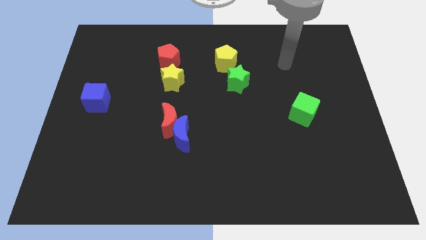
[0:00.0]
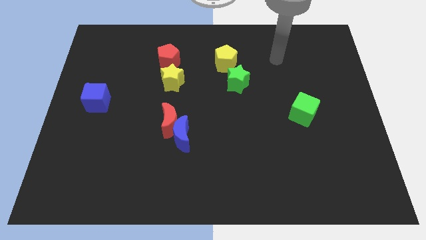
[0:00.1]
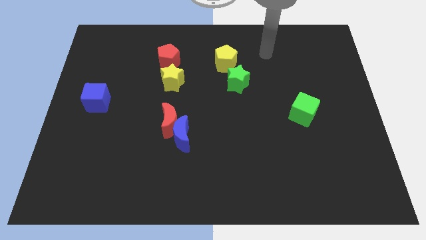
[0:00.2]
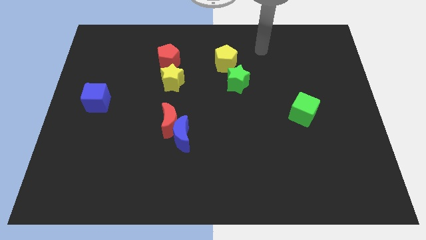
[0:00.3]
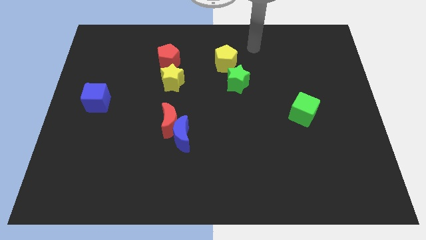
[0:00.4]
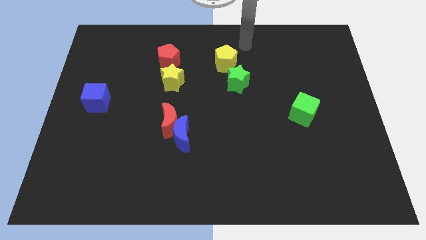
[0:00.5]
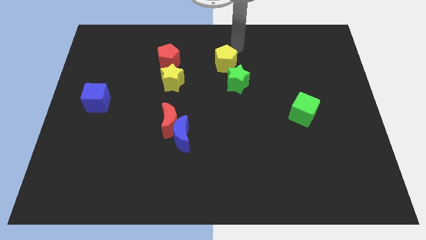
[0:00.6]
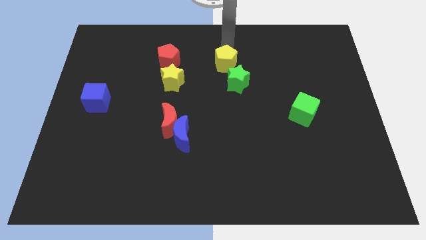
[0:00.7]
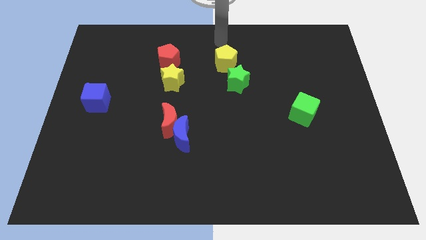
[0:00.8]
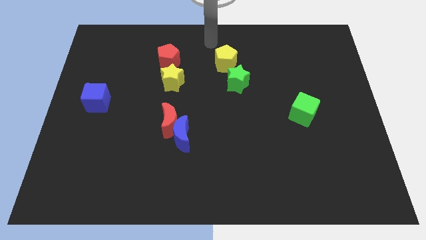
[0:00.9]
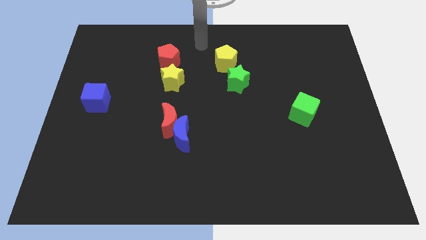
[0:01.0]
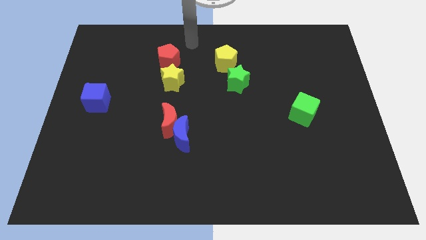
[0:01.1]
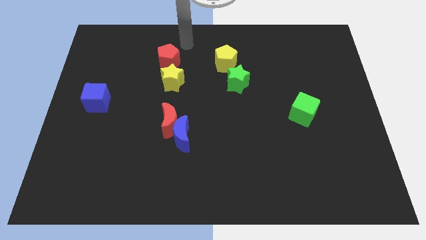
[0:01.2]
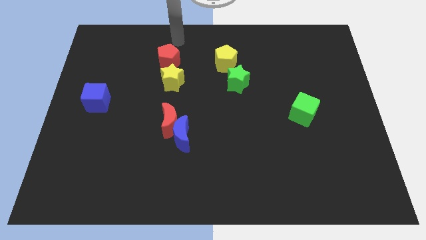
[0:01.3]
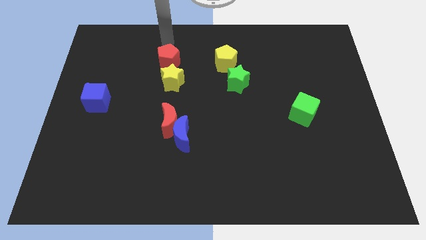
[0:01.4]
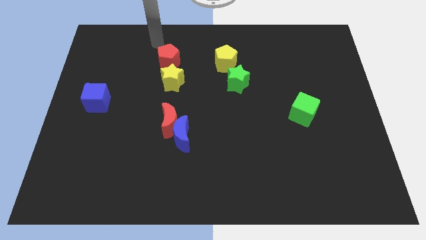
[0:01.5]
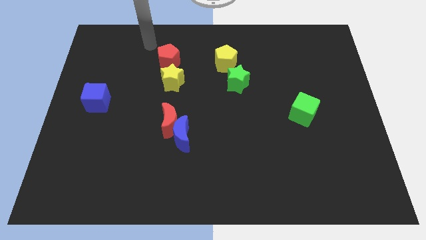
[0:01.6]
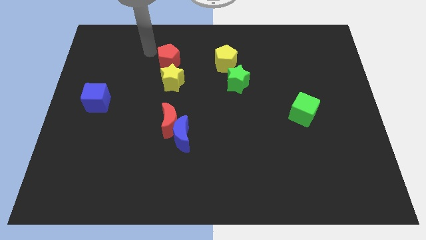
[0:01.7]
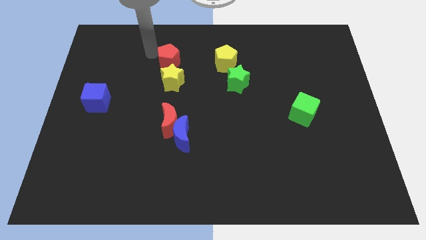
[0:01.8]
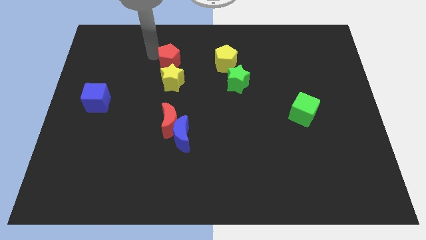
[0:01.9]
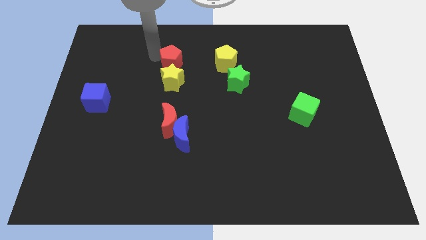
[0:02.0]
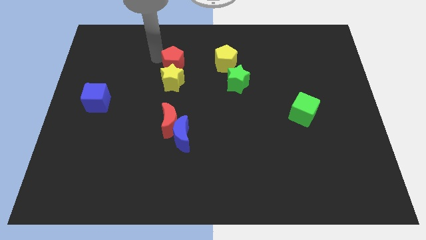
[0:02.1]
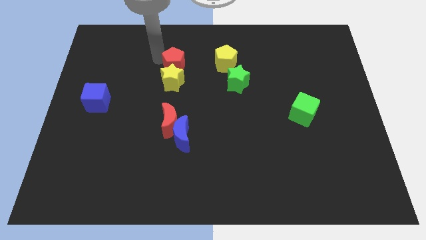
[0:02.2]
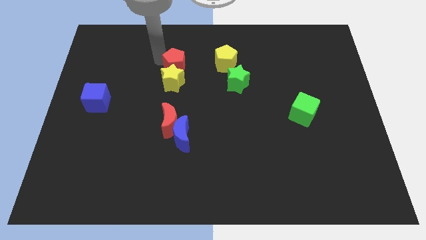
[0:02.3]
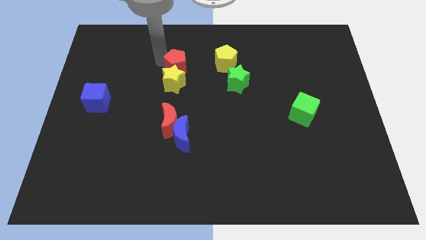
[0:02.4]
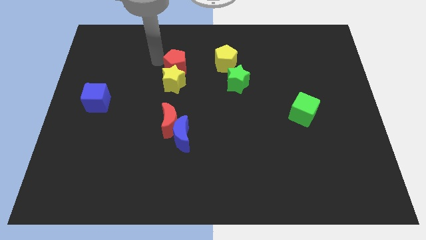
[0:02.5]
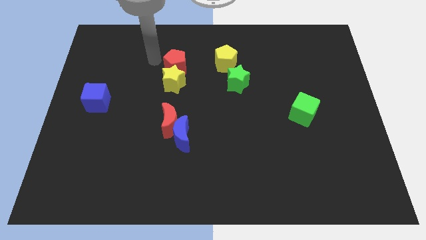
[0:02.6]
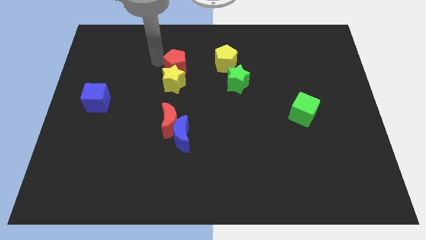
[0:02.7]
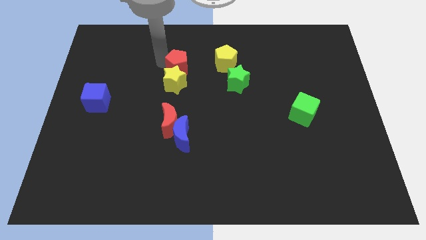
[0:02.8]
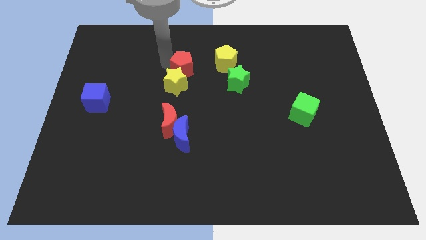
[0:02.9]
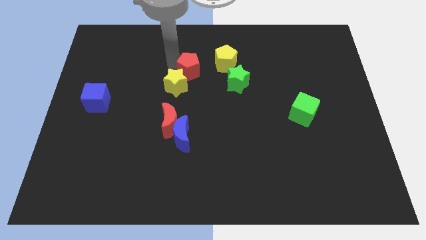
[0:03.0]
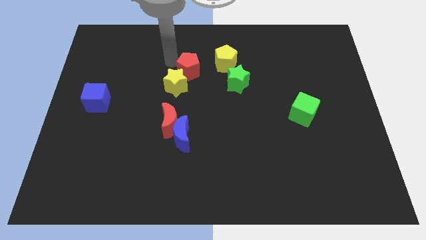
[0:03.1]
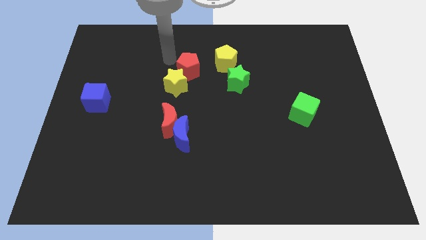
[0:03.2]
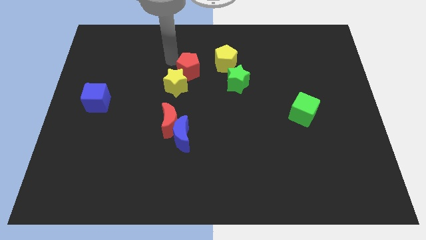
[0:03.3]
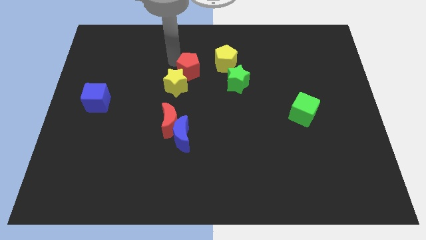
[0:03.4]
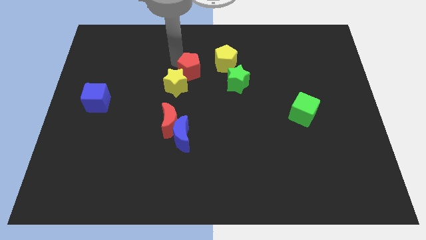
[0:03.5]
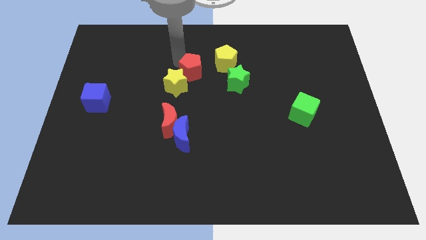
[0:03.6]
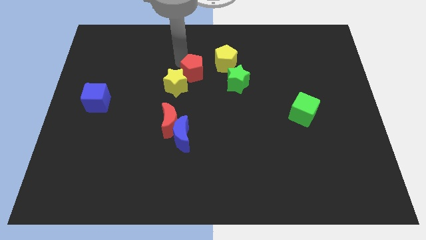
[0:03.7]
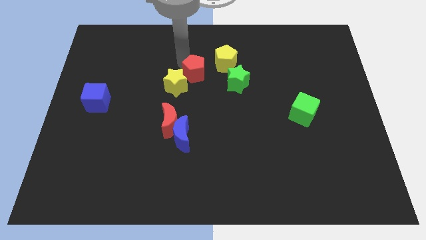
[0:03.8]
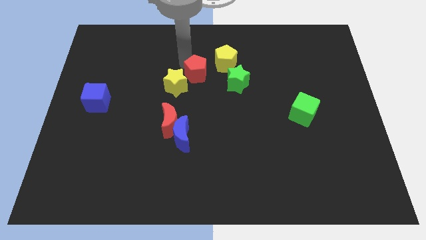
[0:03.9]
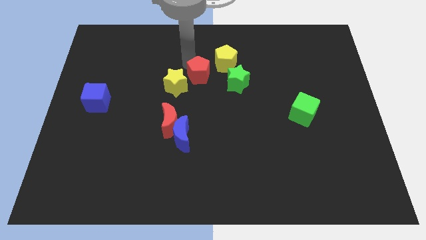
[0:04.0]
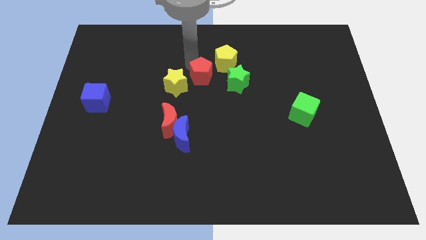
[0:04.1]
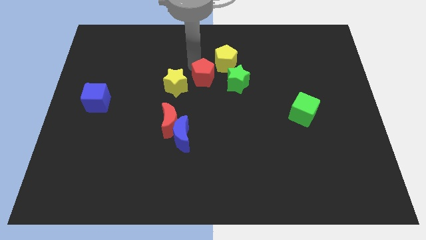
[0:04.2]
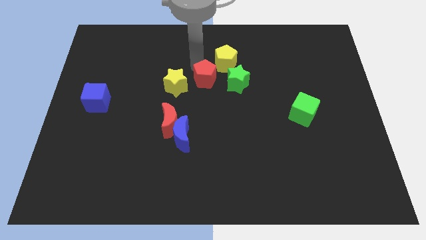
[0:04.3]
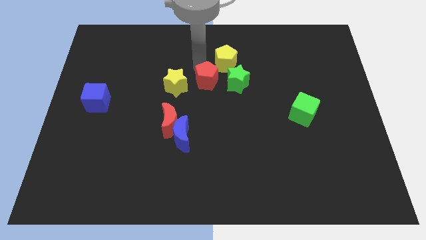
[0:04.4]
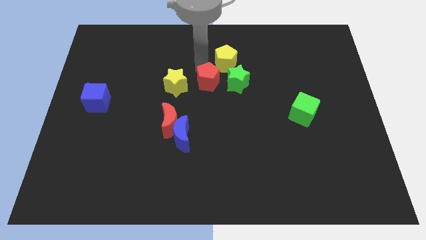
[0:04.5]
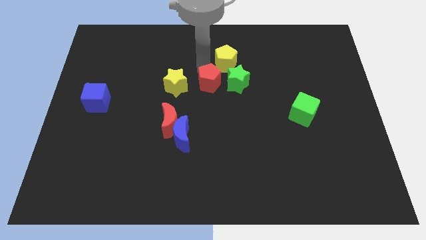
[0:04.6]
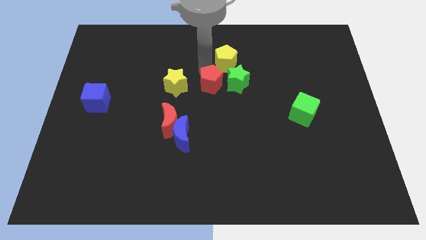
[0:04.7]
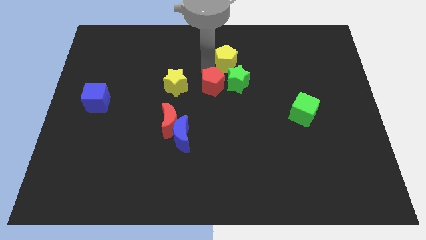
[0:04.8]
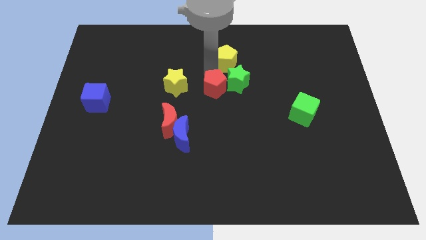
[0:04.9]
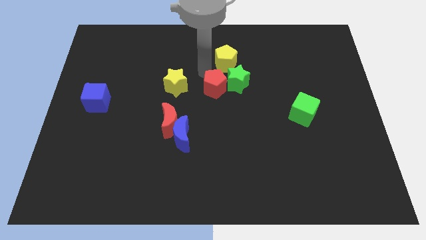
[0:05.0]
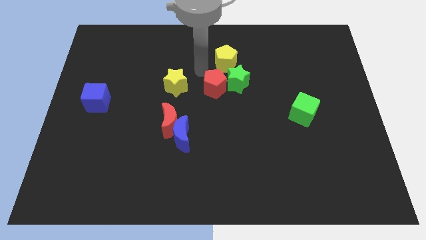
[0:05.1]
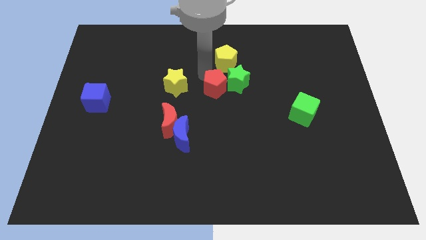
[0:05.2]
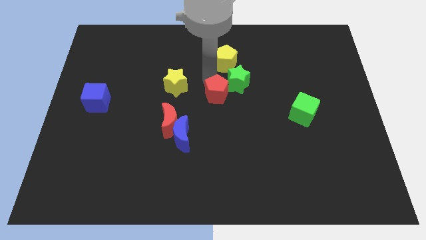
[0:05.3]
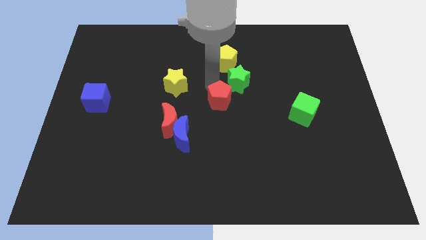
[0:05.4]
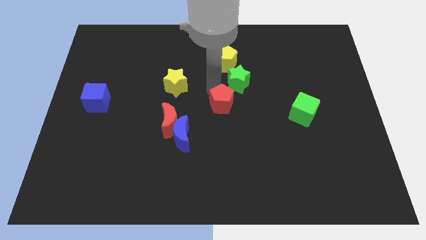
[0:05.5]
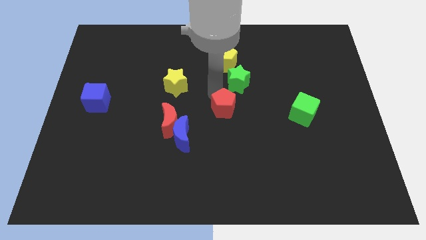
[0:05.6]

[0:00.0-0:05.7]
move the red pentagon diagonally downwards and to the right

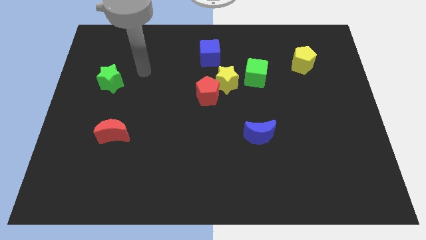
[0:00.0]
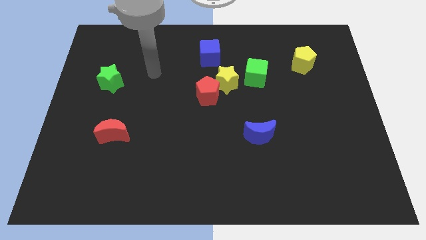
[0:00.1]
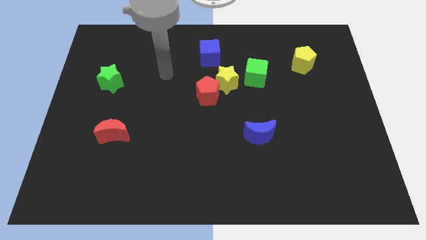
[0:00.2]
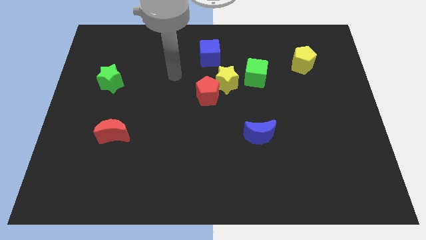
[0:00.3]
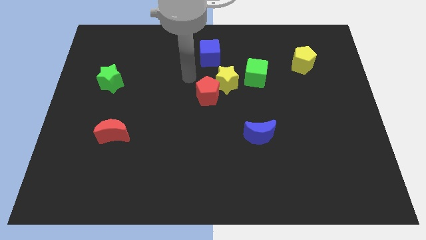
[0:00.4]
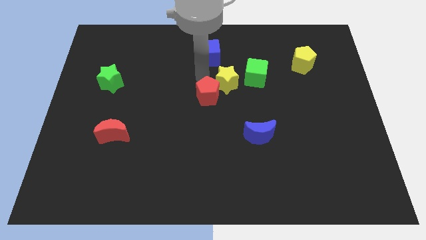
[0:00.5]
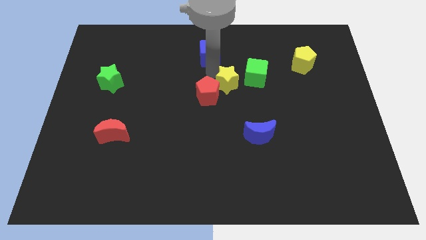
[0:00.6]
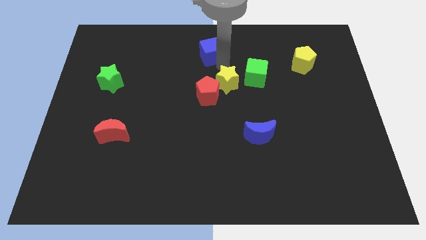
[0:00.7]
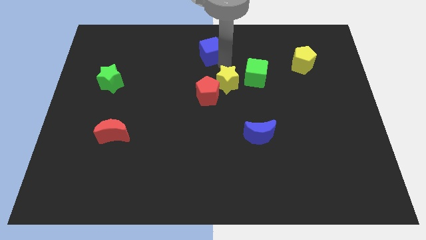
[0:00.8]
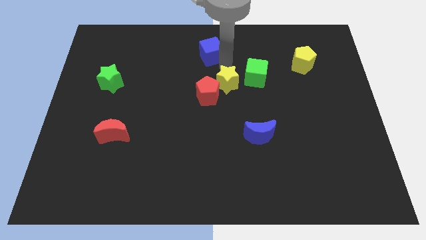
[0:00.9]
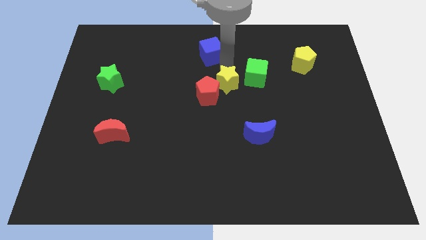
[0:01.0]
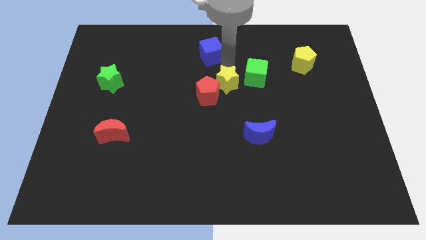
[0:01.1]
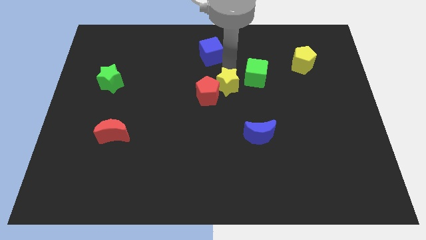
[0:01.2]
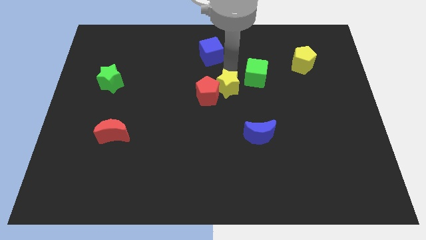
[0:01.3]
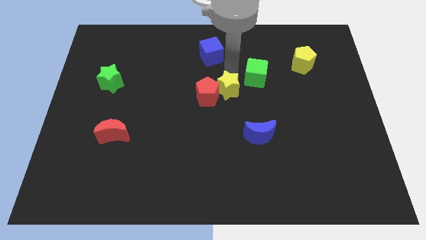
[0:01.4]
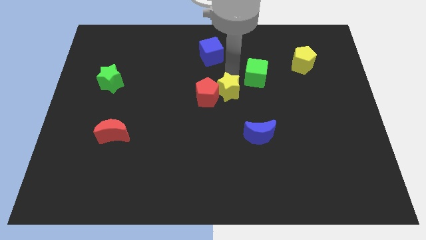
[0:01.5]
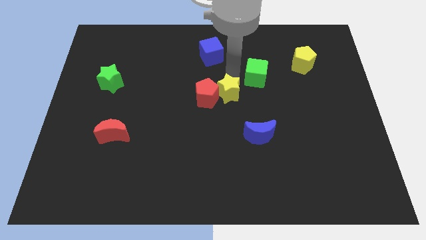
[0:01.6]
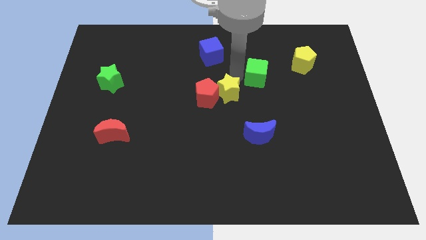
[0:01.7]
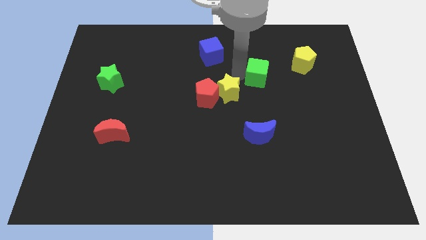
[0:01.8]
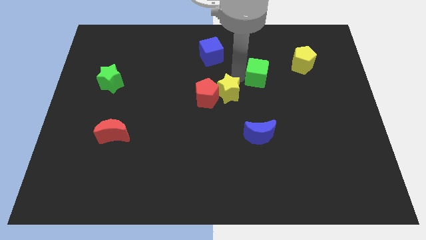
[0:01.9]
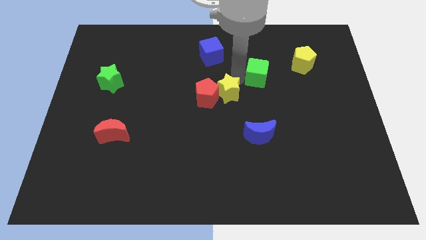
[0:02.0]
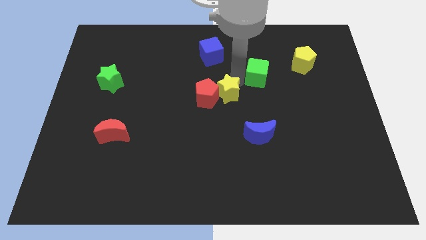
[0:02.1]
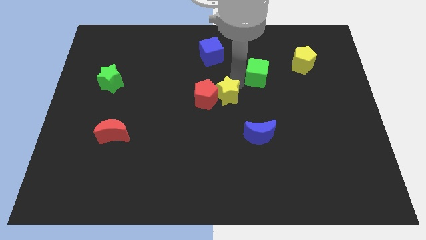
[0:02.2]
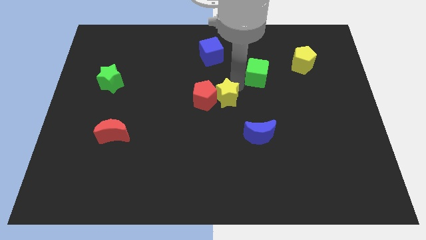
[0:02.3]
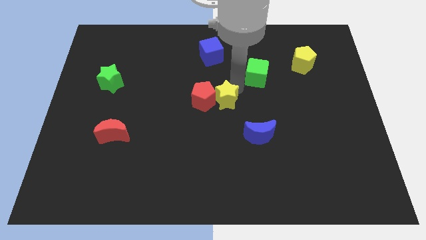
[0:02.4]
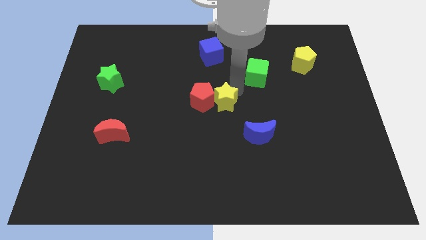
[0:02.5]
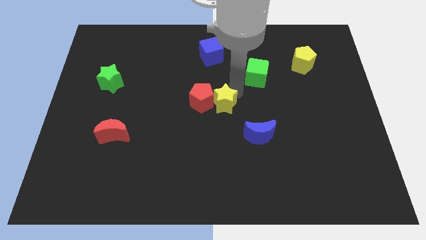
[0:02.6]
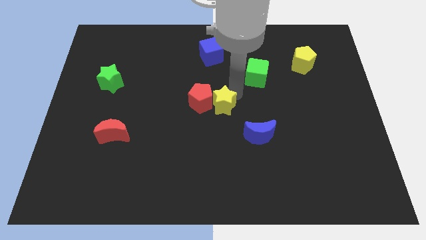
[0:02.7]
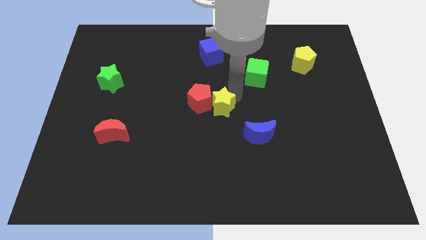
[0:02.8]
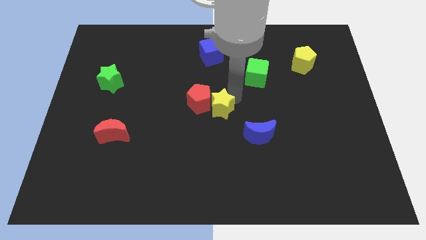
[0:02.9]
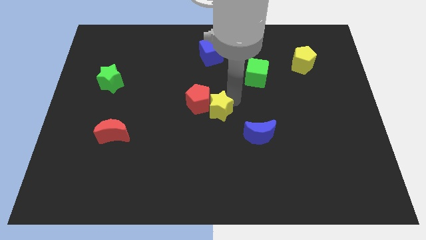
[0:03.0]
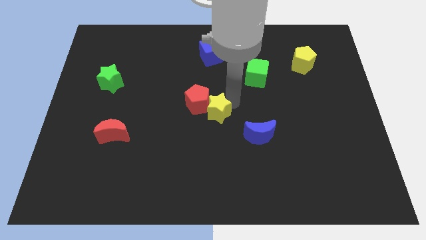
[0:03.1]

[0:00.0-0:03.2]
slide the yellow star a little bit down and to the left
